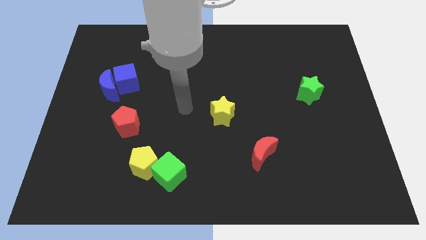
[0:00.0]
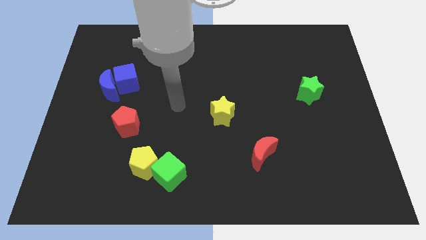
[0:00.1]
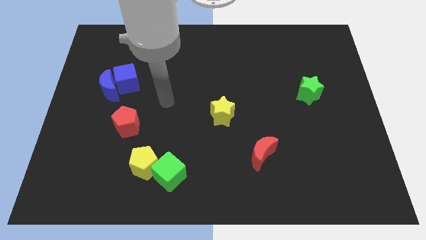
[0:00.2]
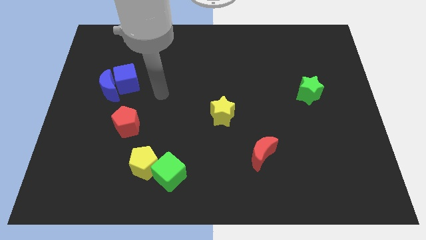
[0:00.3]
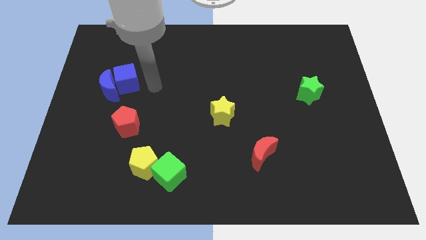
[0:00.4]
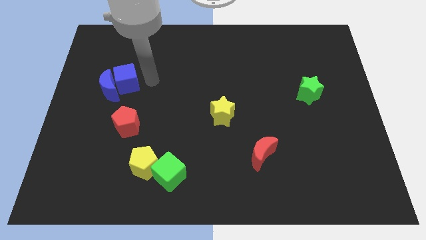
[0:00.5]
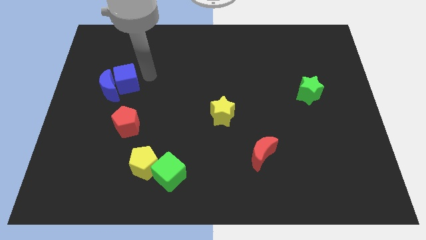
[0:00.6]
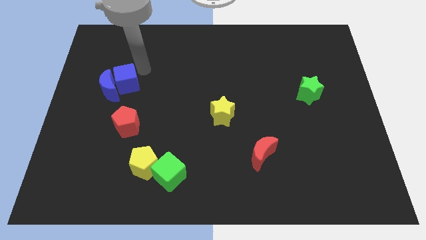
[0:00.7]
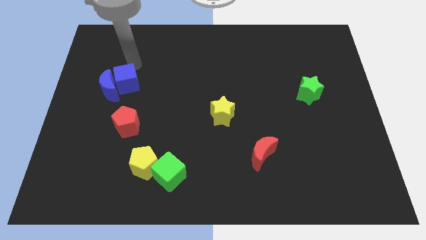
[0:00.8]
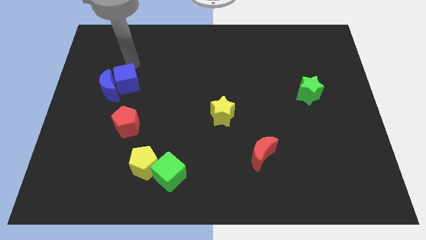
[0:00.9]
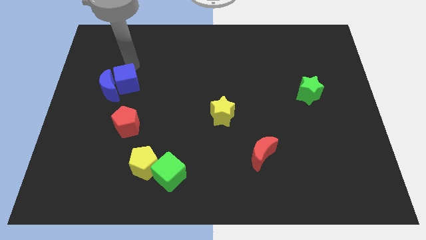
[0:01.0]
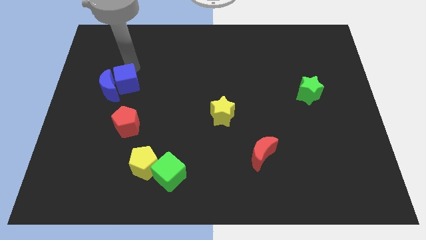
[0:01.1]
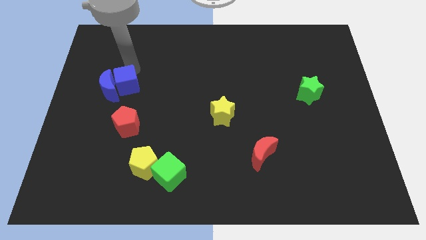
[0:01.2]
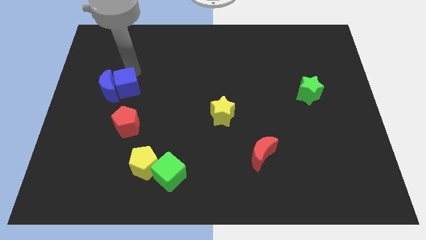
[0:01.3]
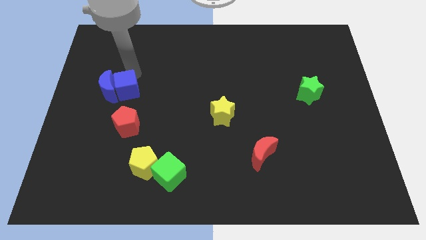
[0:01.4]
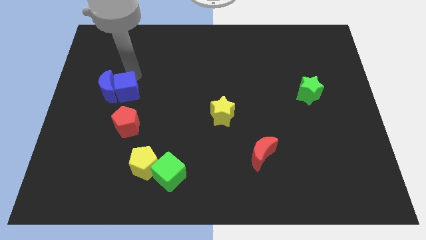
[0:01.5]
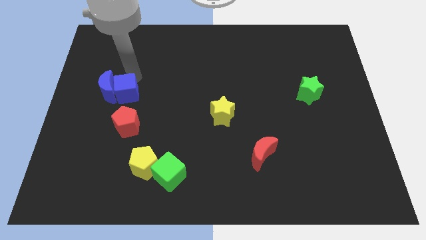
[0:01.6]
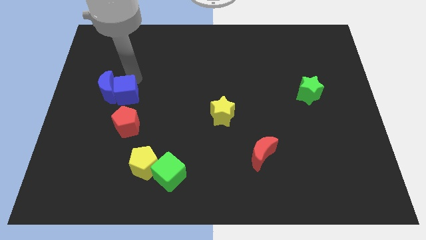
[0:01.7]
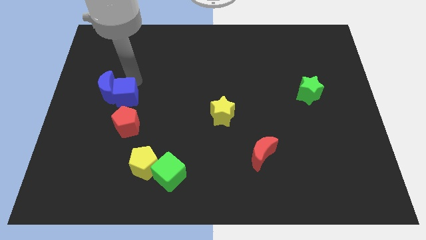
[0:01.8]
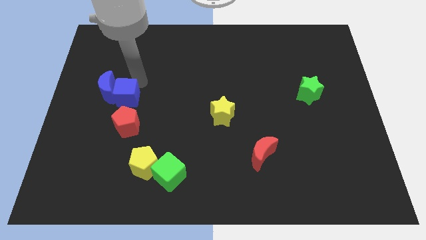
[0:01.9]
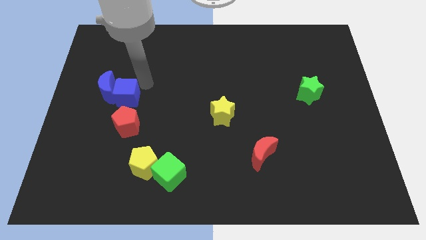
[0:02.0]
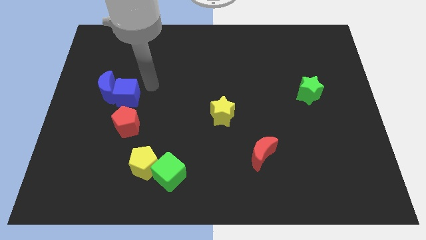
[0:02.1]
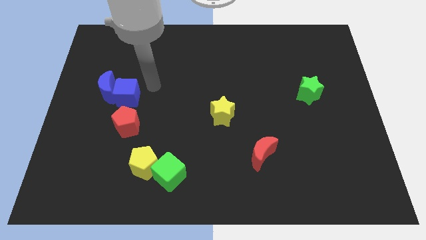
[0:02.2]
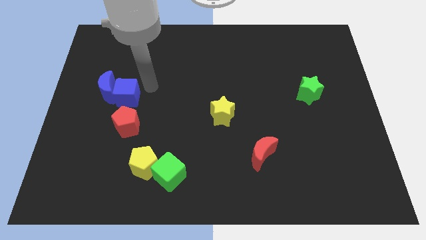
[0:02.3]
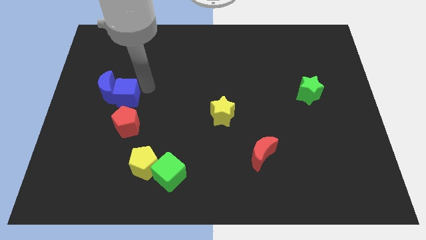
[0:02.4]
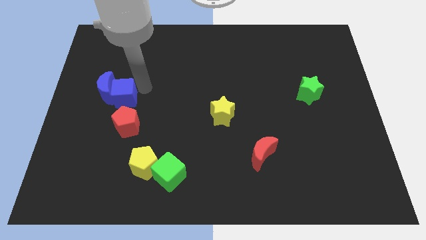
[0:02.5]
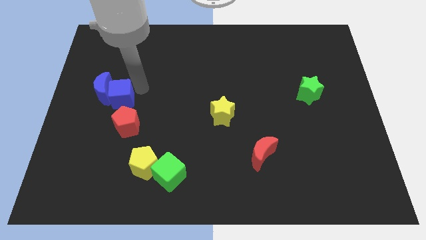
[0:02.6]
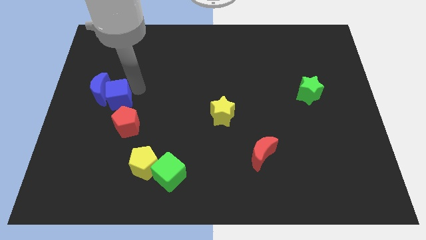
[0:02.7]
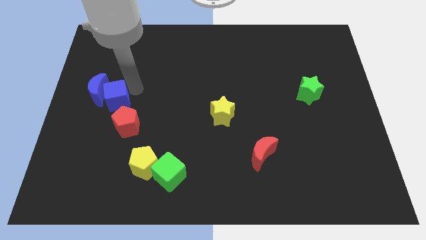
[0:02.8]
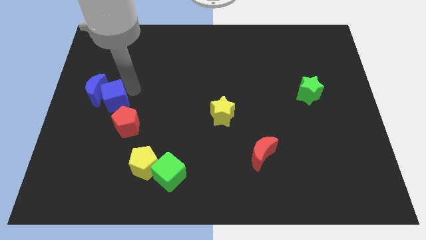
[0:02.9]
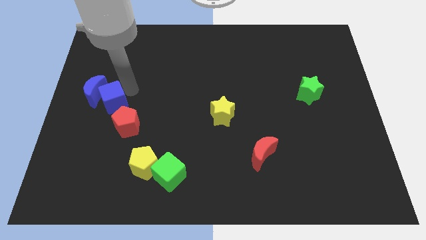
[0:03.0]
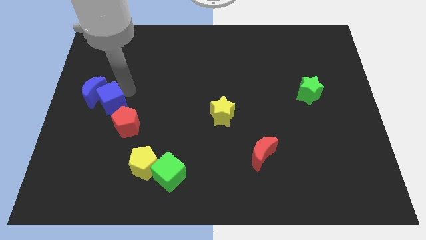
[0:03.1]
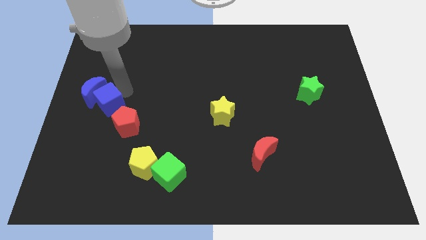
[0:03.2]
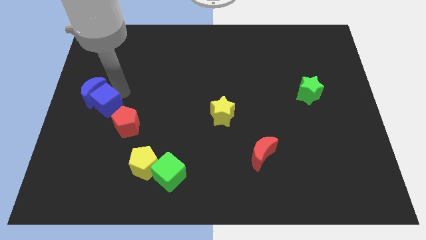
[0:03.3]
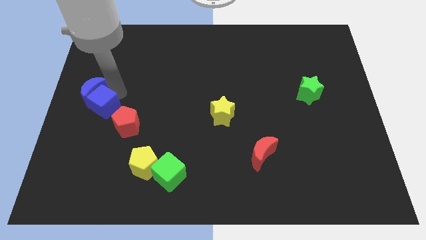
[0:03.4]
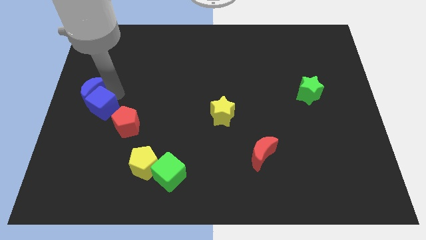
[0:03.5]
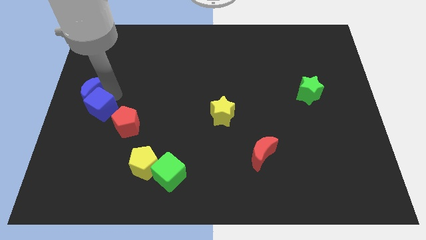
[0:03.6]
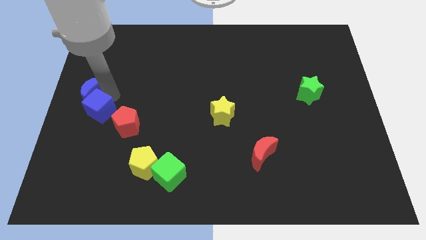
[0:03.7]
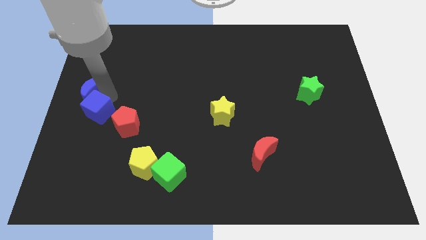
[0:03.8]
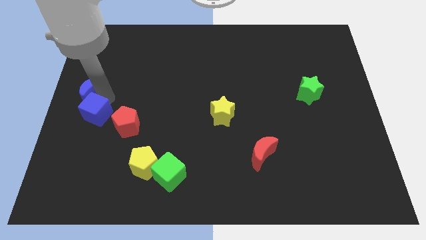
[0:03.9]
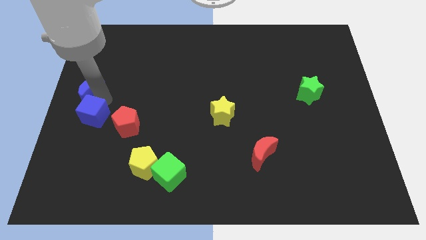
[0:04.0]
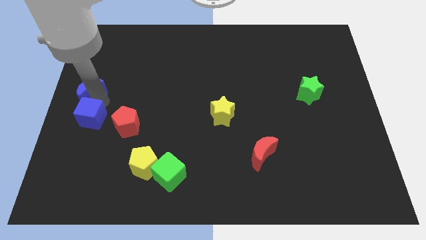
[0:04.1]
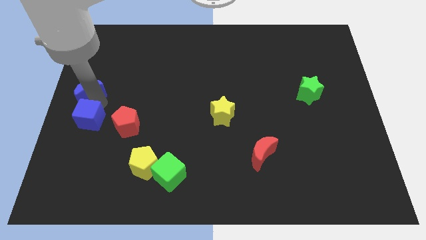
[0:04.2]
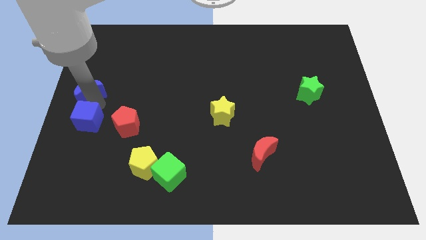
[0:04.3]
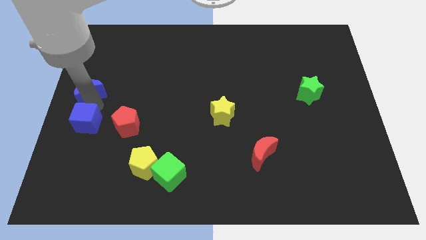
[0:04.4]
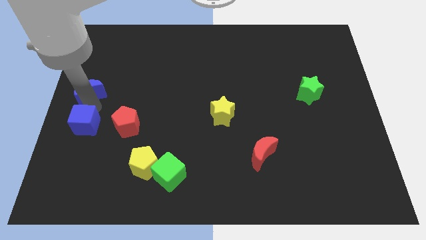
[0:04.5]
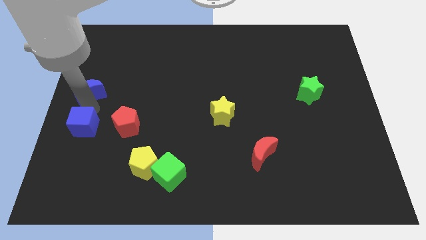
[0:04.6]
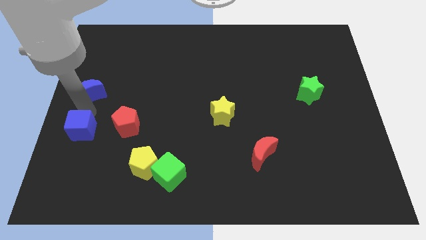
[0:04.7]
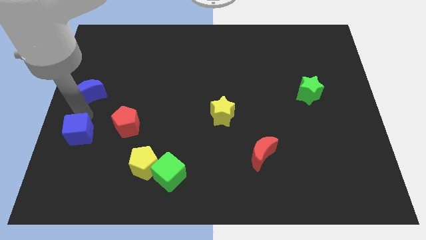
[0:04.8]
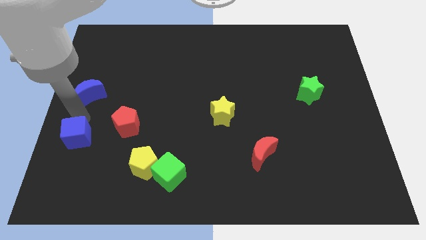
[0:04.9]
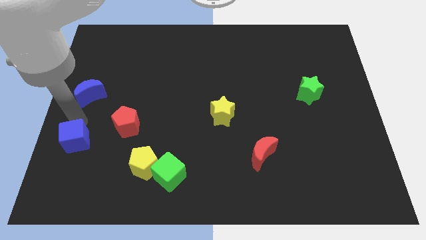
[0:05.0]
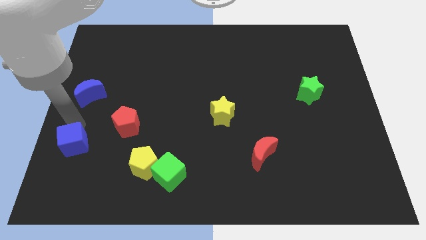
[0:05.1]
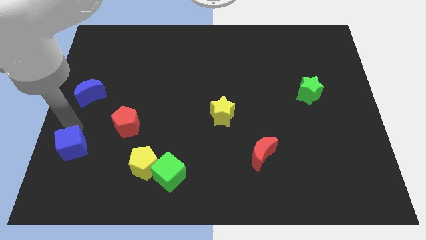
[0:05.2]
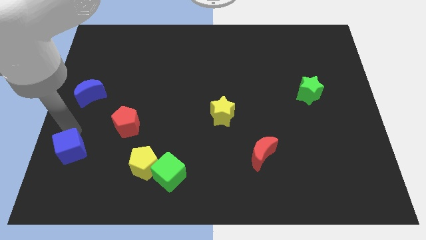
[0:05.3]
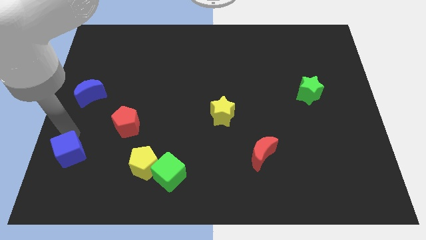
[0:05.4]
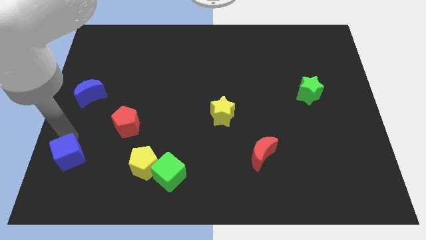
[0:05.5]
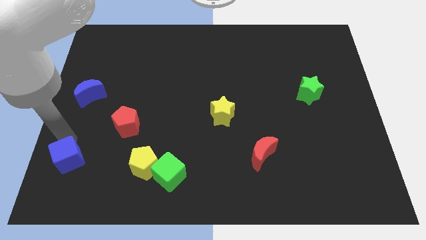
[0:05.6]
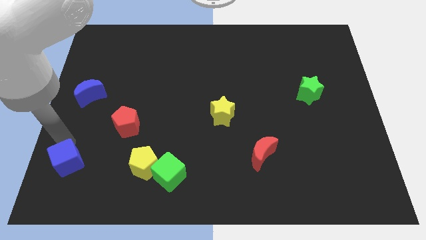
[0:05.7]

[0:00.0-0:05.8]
put the blue cube to the left side of the yellow pentagon

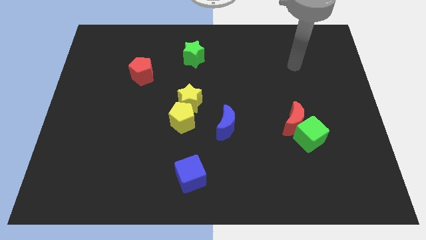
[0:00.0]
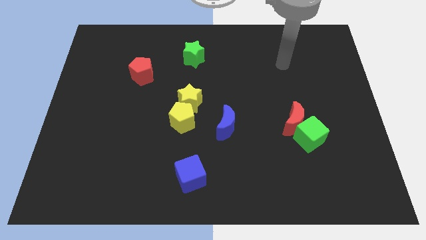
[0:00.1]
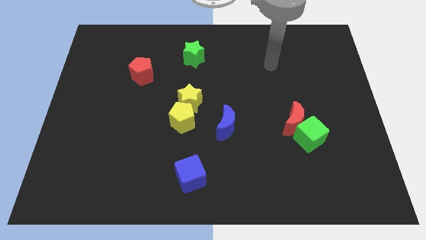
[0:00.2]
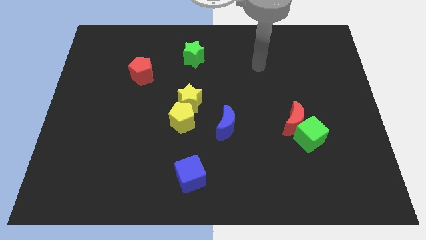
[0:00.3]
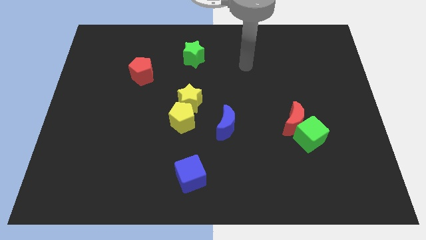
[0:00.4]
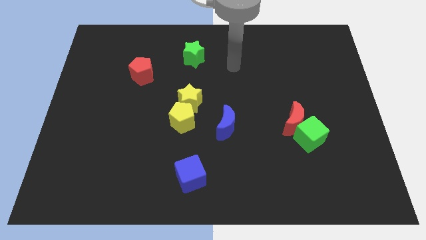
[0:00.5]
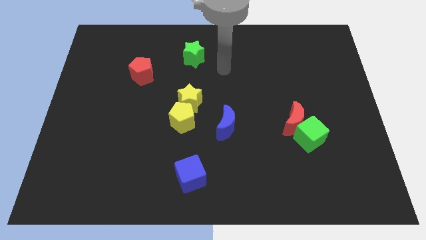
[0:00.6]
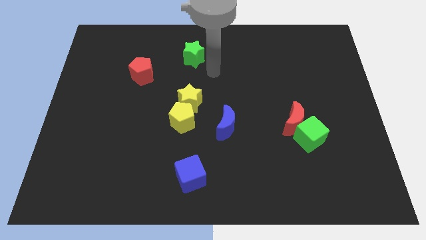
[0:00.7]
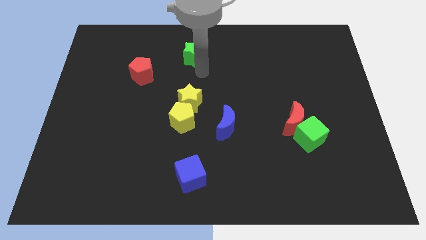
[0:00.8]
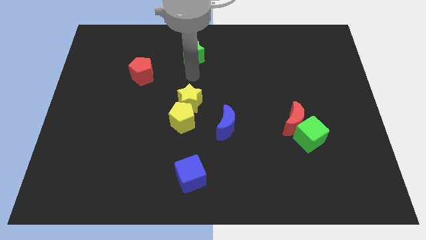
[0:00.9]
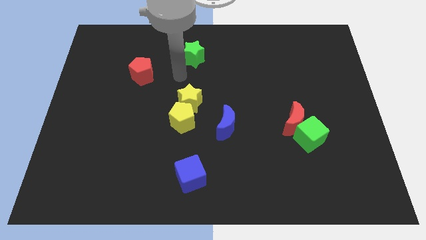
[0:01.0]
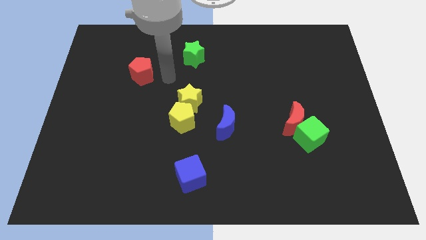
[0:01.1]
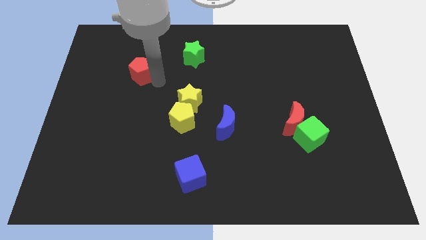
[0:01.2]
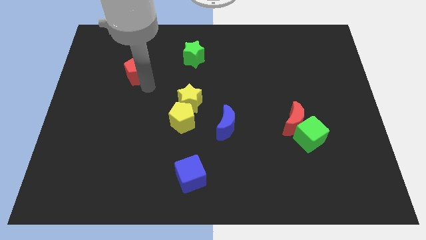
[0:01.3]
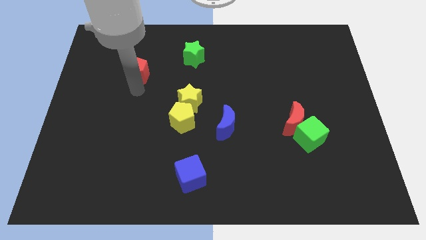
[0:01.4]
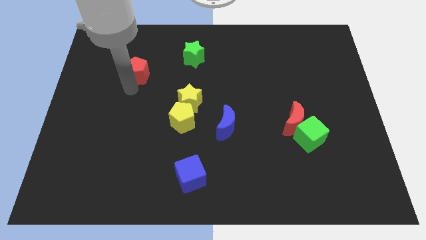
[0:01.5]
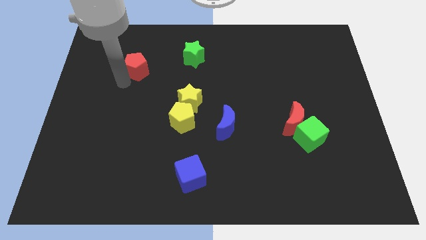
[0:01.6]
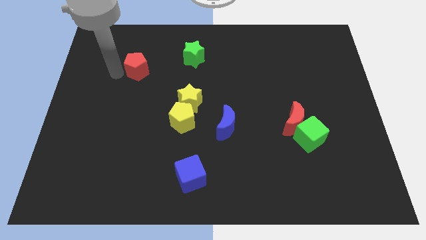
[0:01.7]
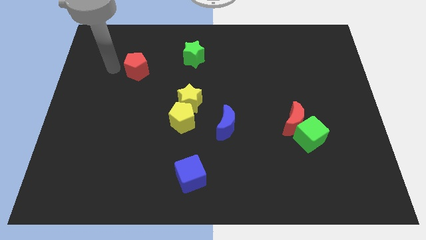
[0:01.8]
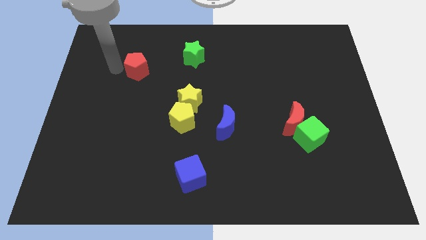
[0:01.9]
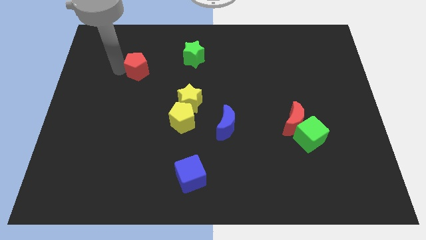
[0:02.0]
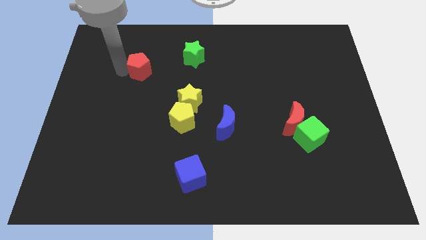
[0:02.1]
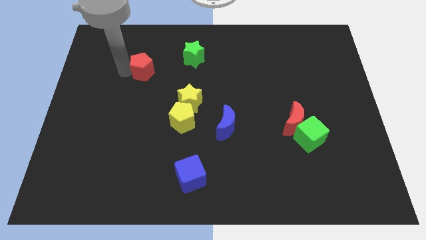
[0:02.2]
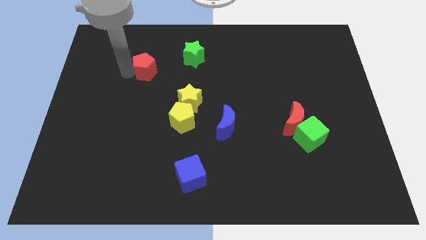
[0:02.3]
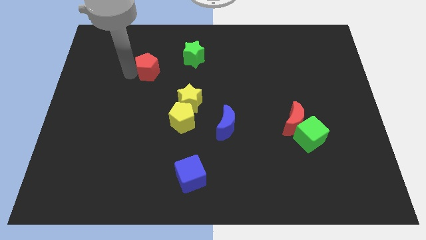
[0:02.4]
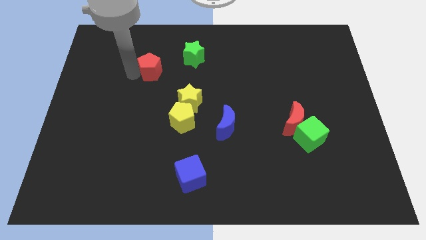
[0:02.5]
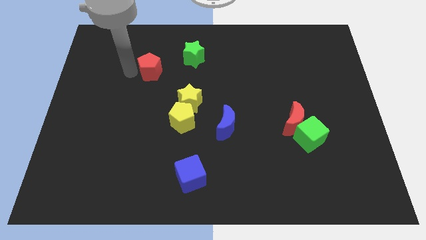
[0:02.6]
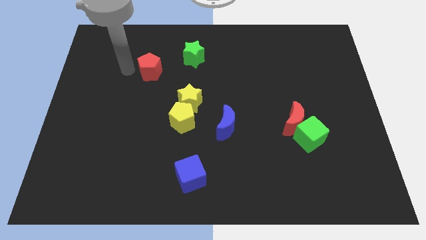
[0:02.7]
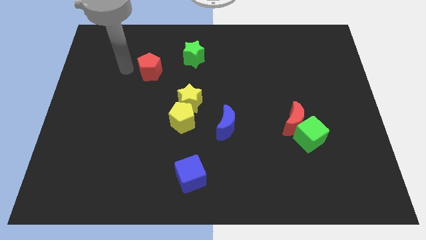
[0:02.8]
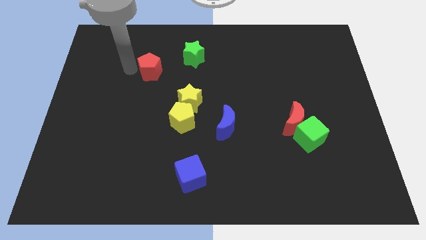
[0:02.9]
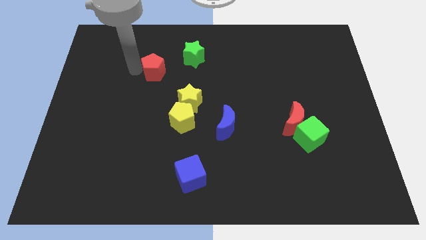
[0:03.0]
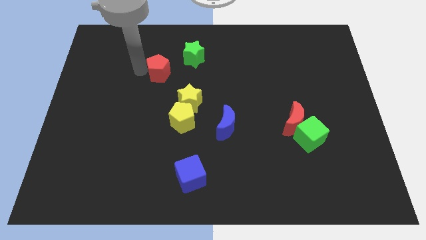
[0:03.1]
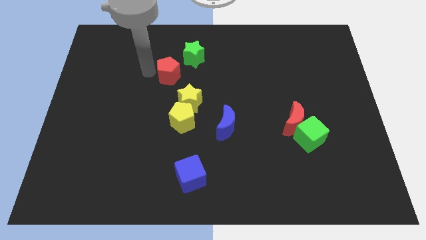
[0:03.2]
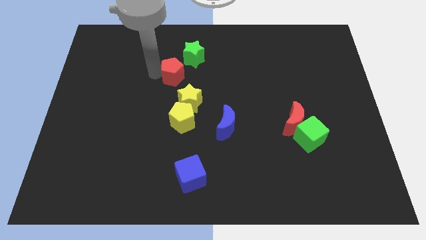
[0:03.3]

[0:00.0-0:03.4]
move the red pentagon to the top side of the yellow star
